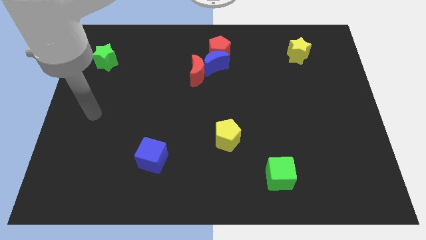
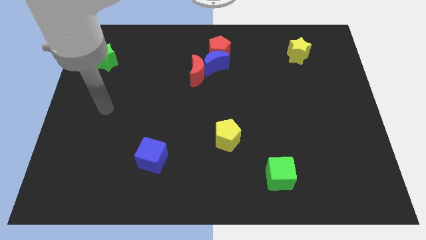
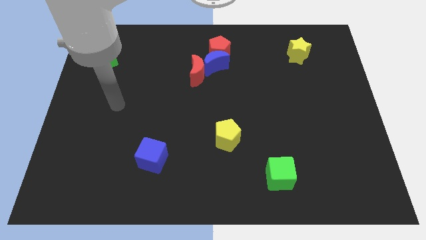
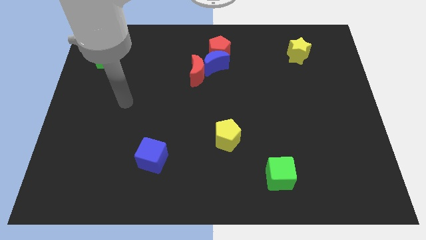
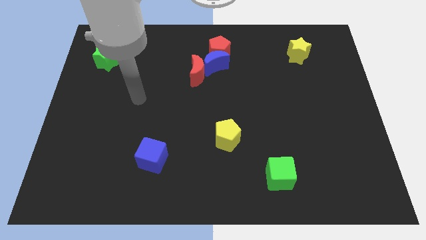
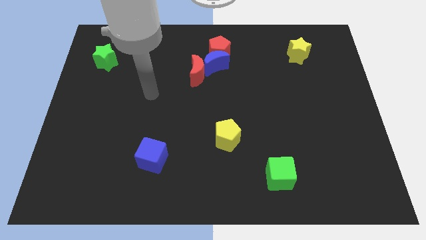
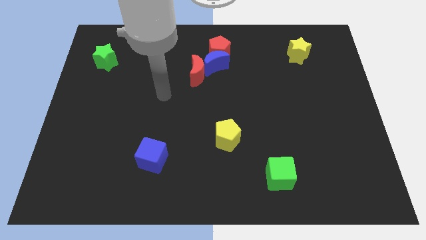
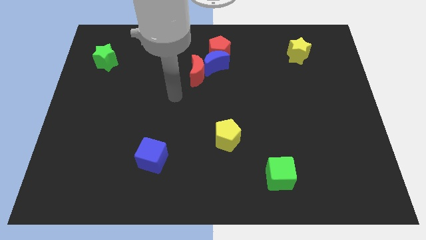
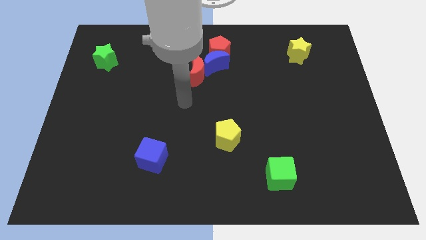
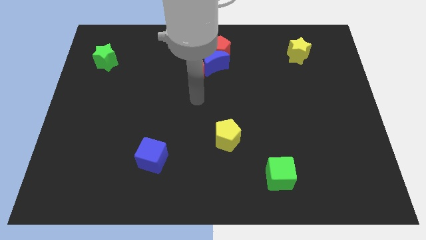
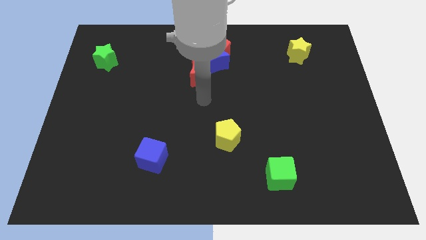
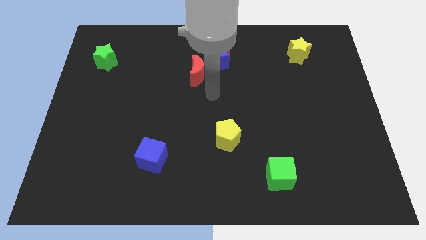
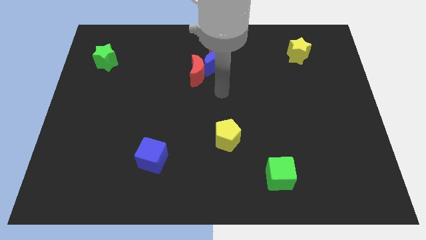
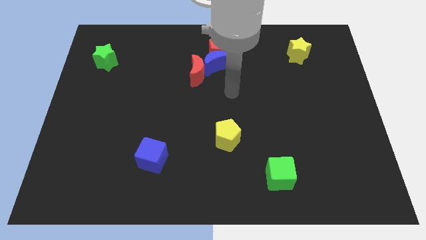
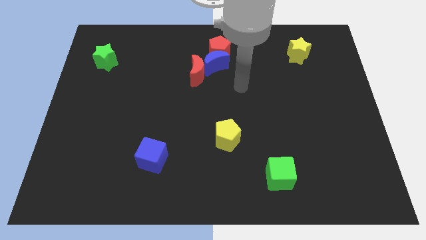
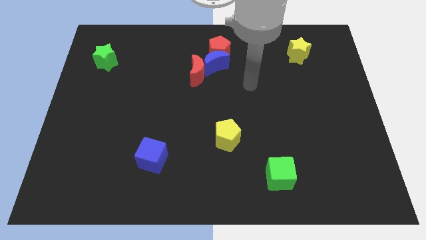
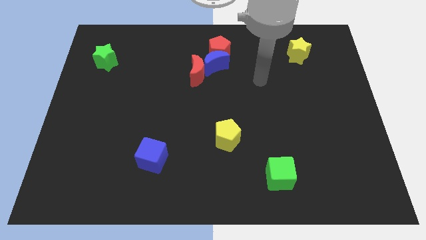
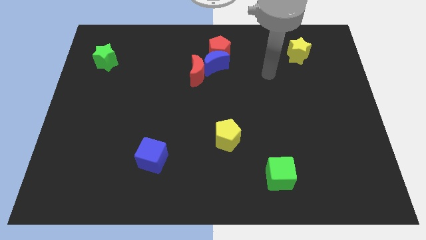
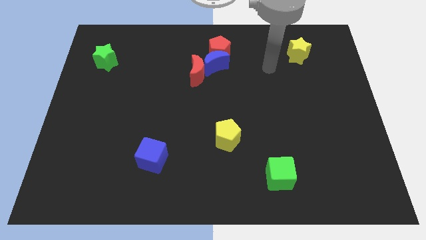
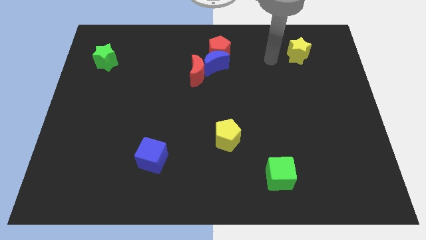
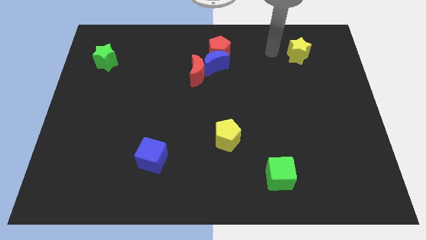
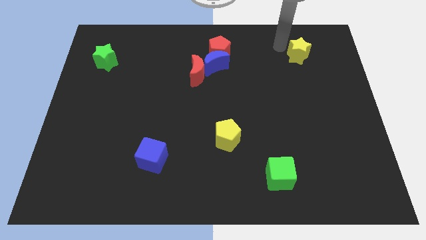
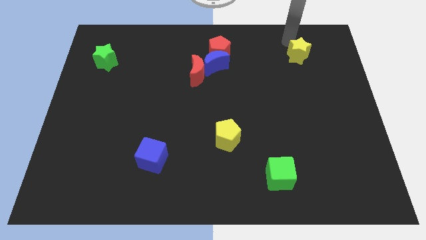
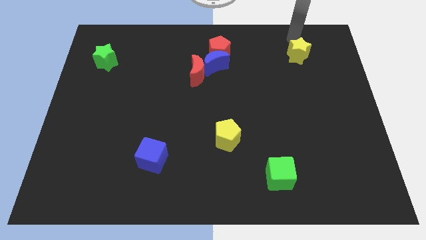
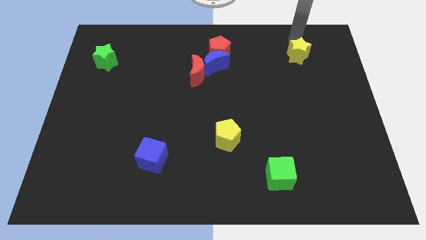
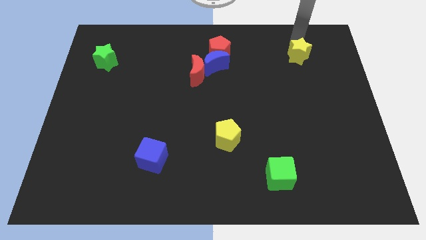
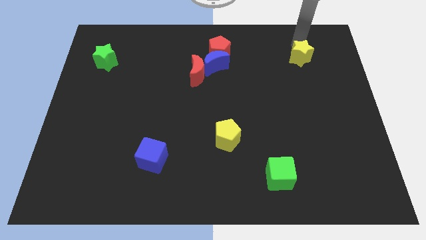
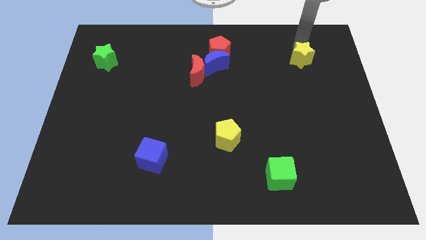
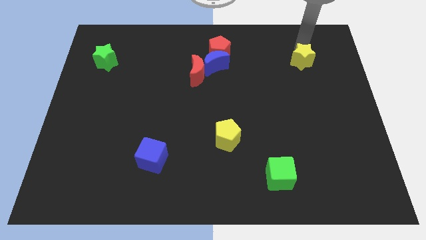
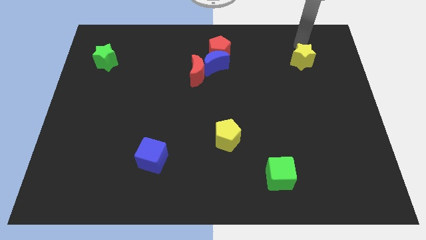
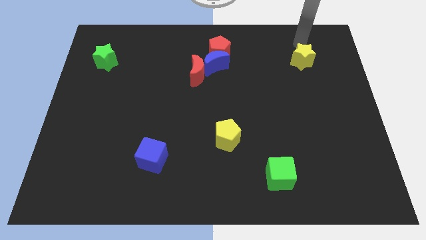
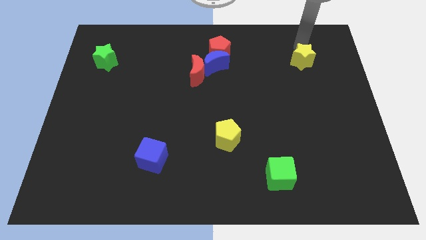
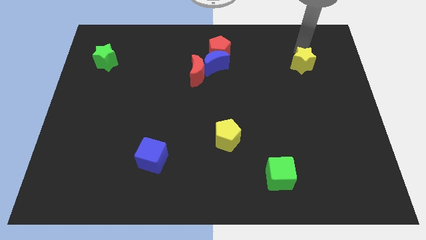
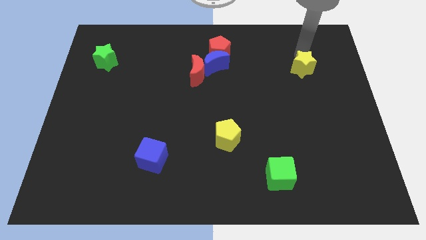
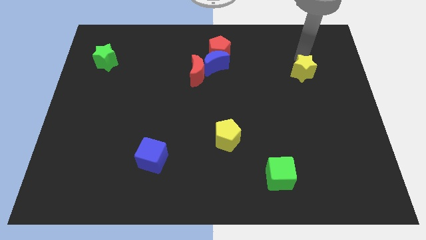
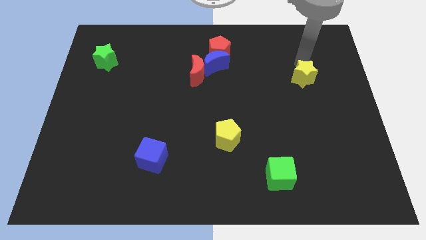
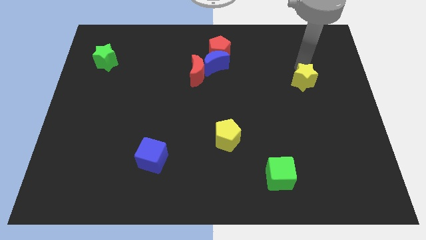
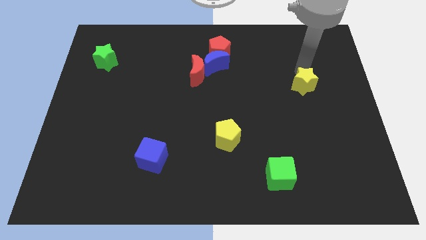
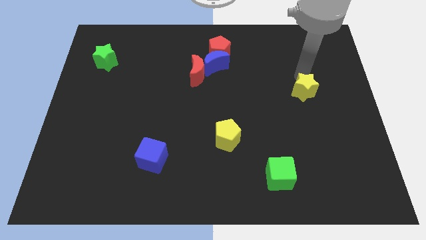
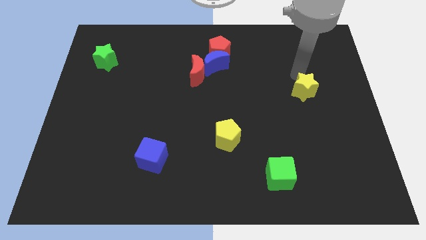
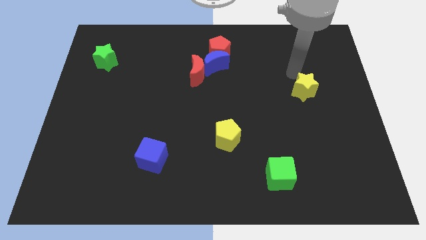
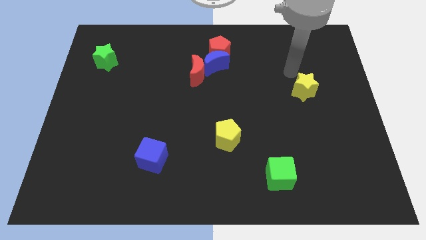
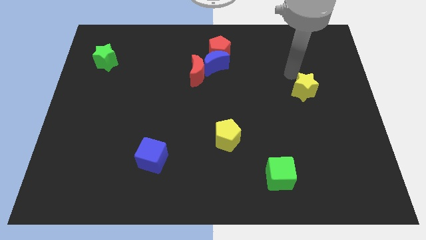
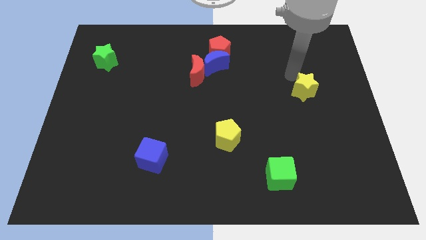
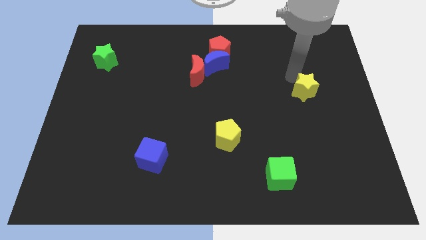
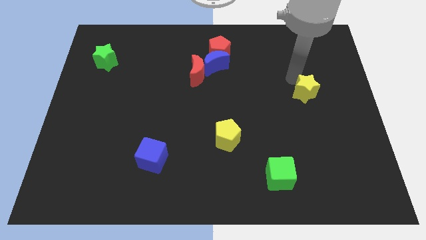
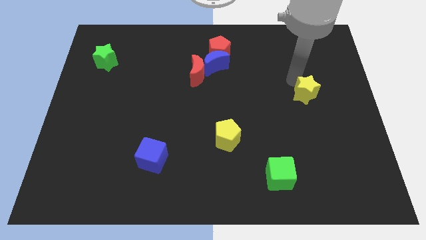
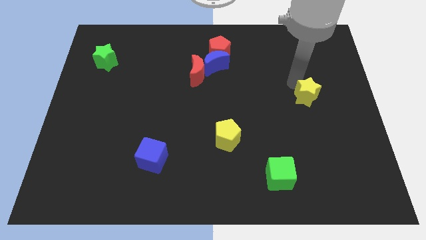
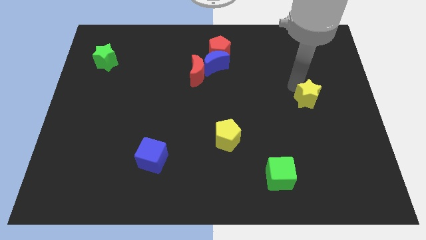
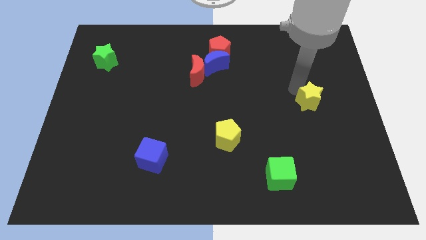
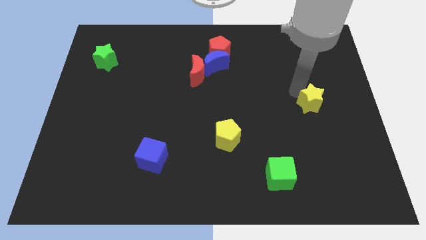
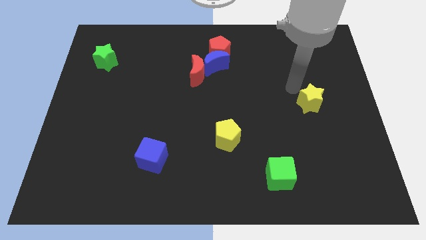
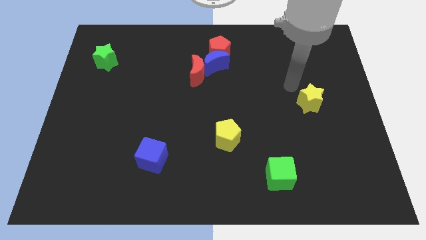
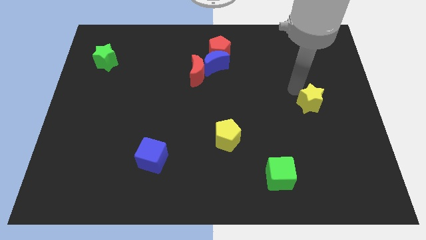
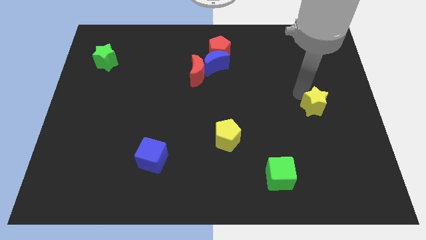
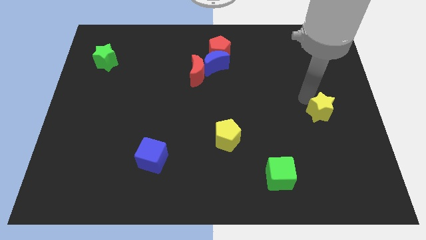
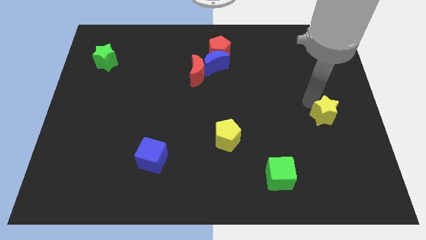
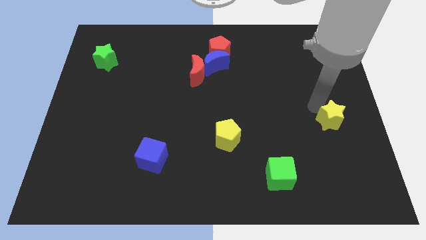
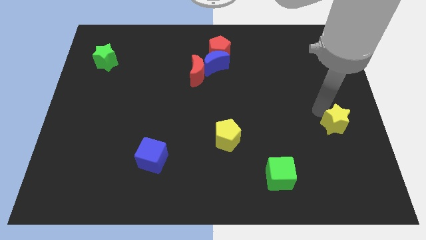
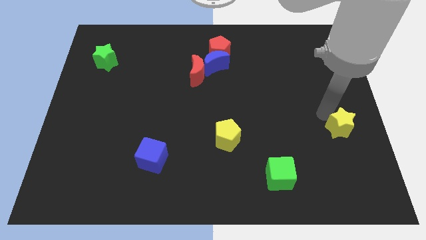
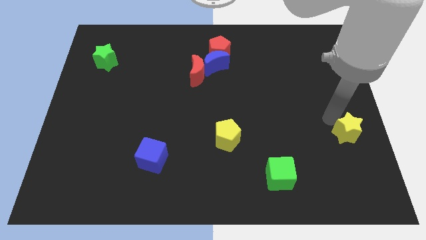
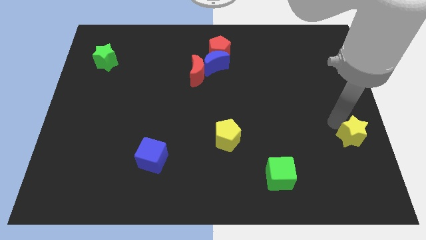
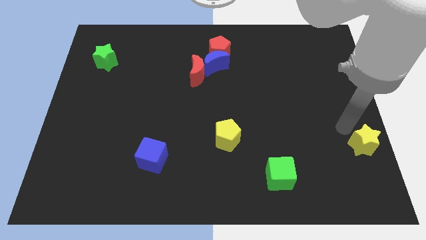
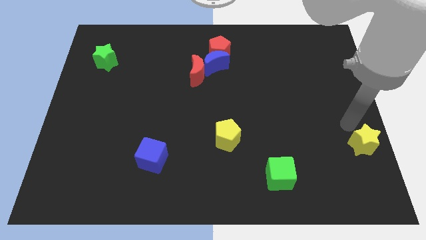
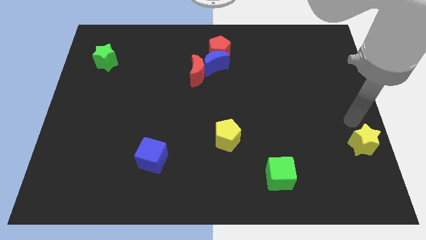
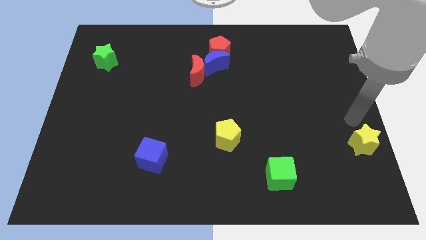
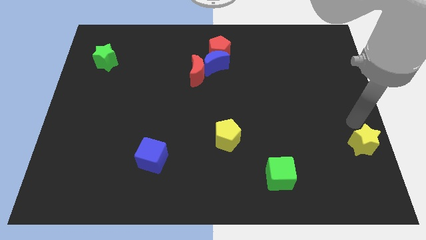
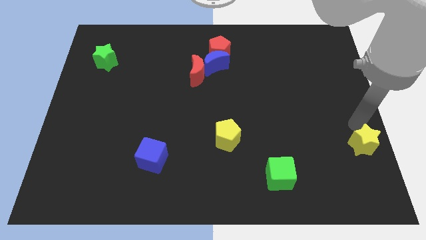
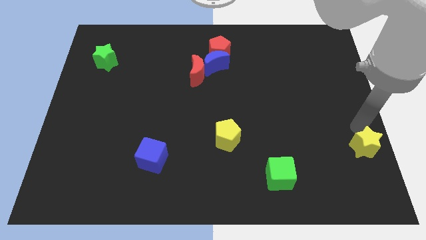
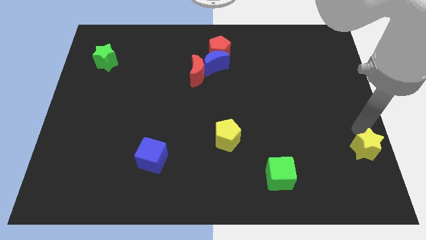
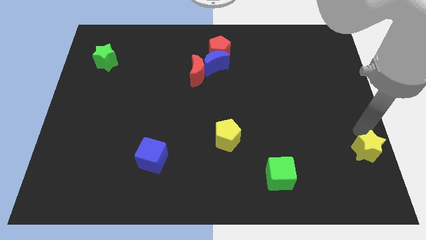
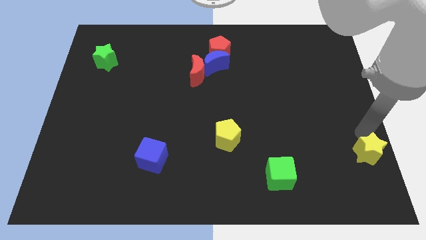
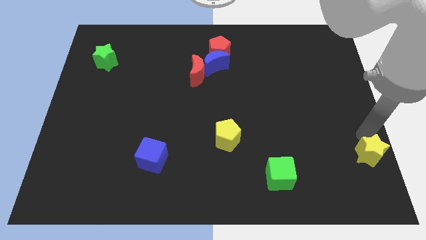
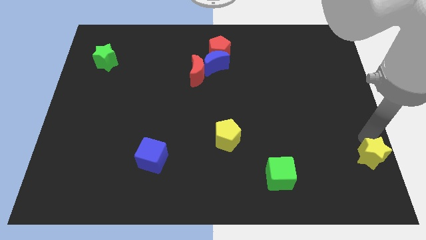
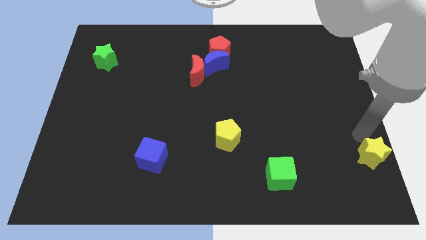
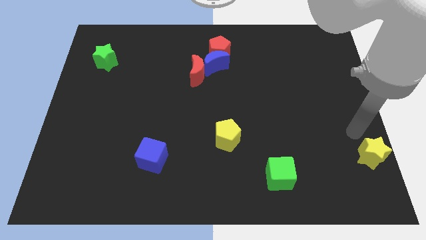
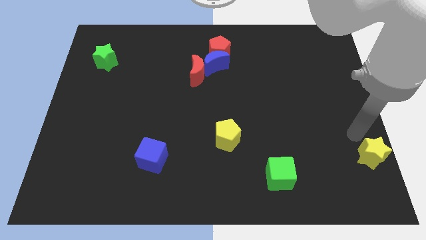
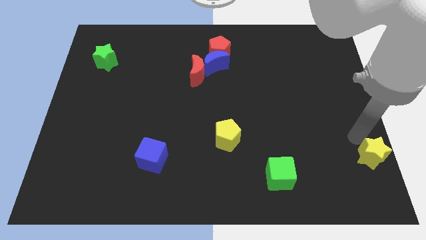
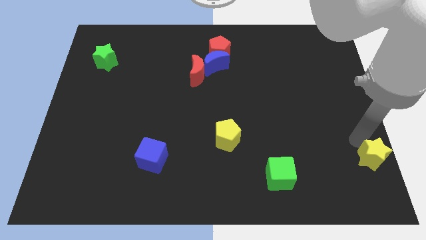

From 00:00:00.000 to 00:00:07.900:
push the yellow star to the lower right corner
